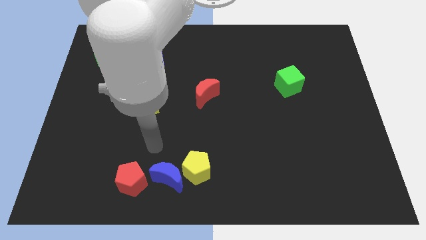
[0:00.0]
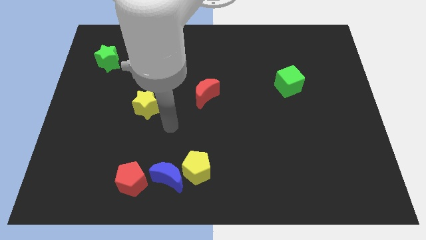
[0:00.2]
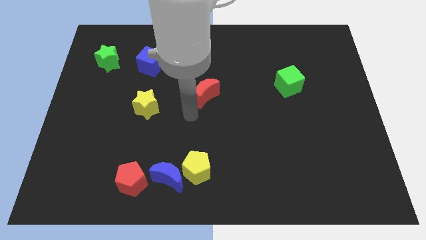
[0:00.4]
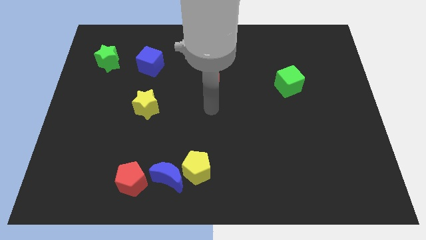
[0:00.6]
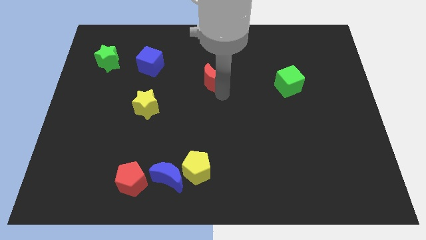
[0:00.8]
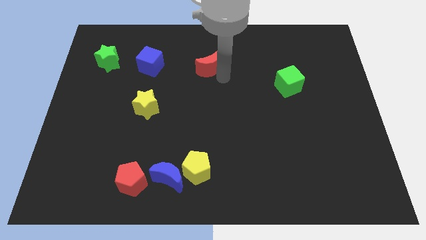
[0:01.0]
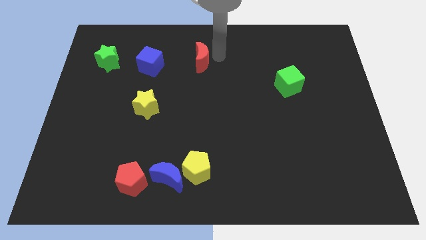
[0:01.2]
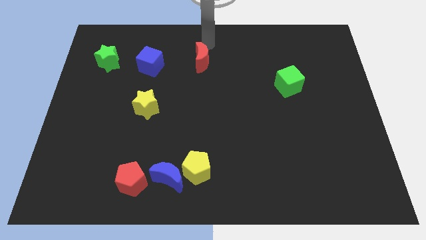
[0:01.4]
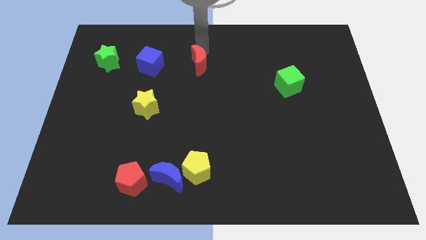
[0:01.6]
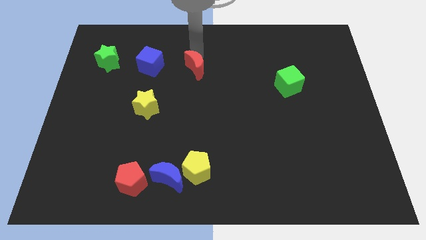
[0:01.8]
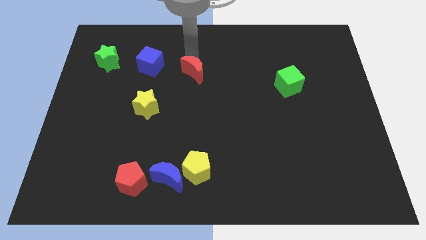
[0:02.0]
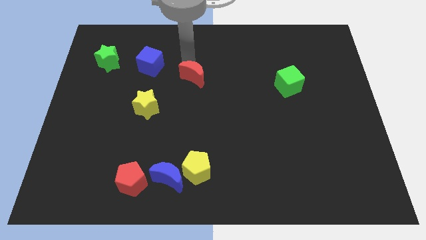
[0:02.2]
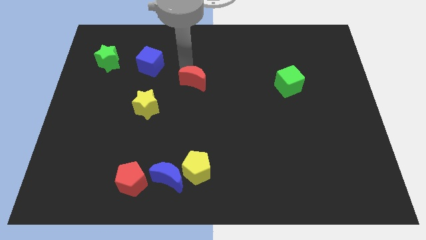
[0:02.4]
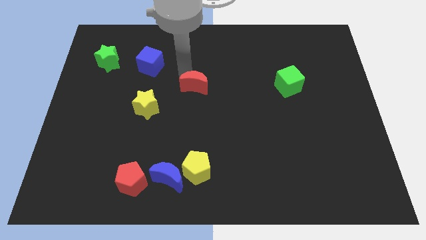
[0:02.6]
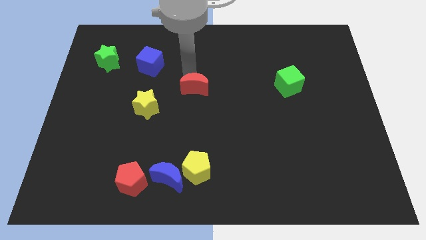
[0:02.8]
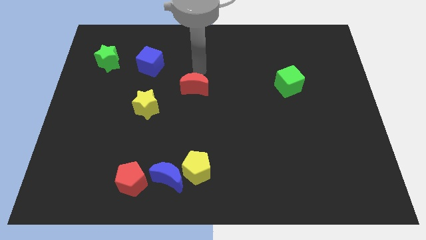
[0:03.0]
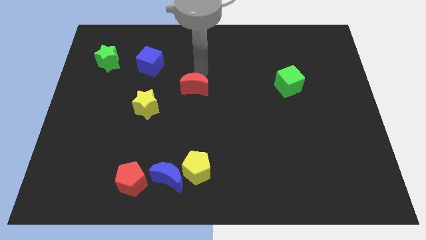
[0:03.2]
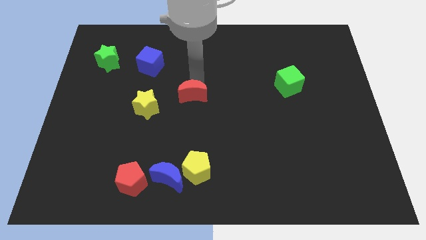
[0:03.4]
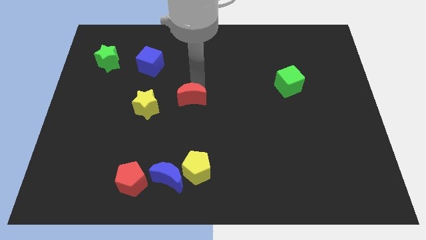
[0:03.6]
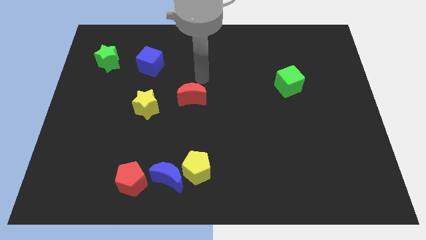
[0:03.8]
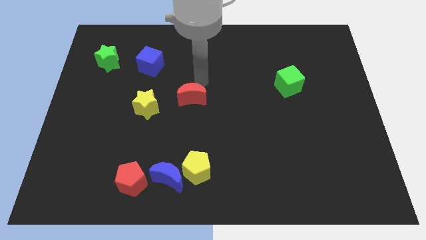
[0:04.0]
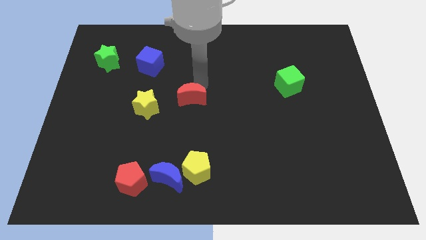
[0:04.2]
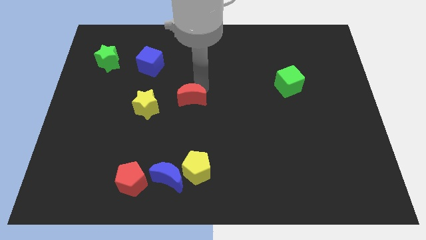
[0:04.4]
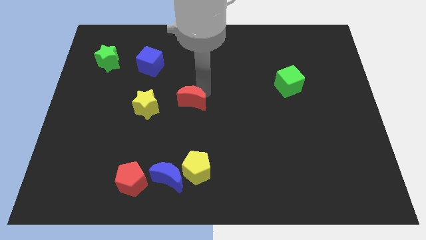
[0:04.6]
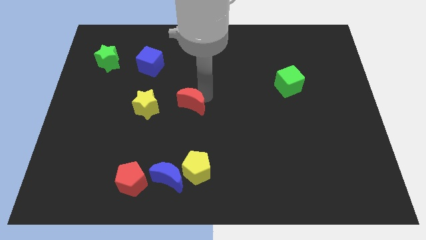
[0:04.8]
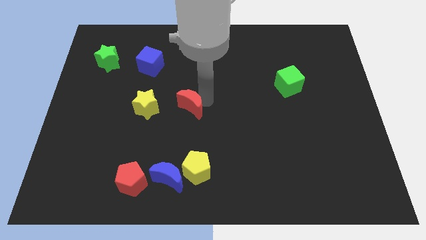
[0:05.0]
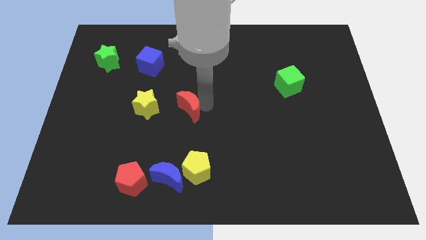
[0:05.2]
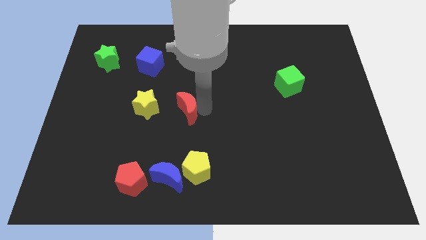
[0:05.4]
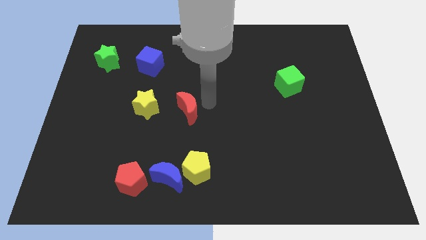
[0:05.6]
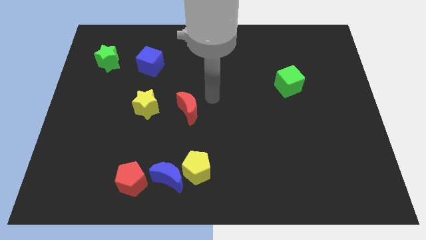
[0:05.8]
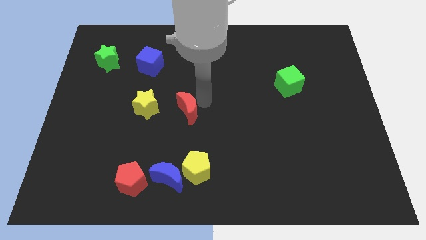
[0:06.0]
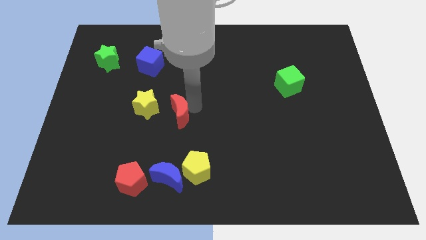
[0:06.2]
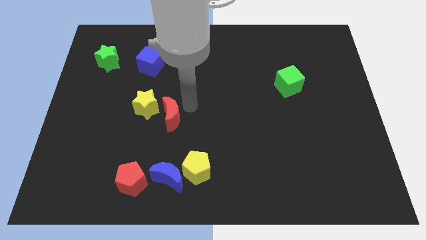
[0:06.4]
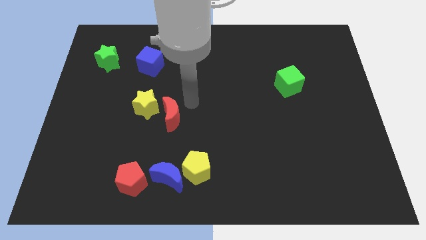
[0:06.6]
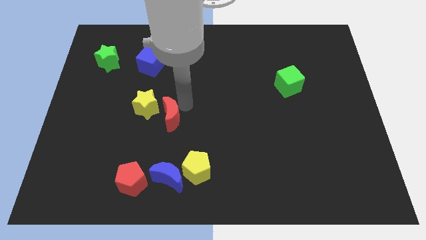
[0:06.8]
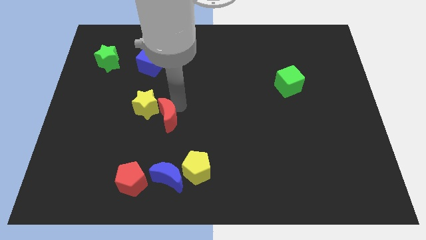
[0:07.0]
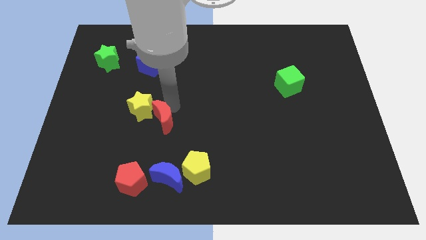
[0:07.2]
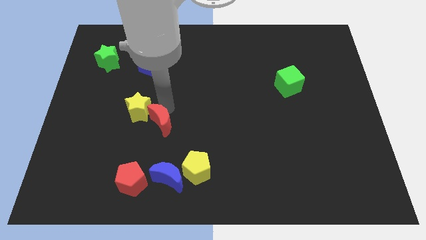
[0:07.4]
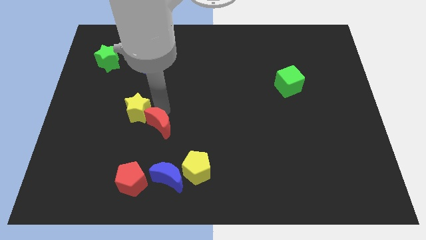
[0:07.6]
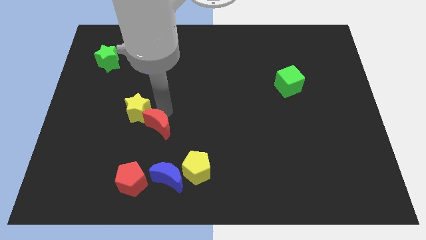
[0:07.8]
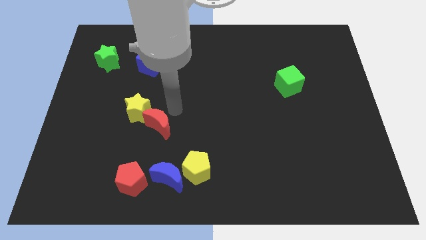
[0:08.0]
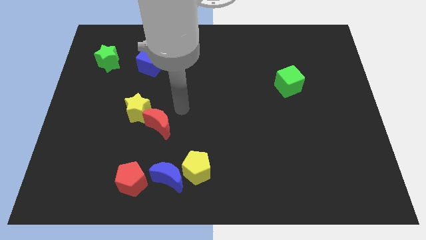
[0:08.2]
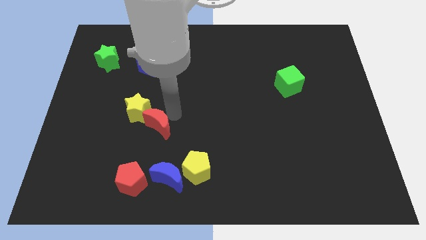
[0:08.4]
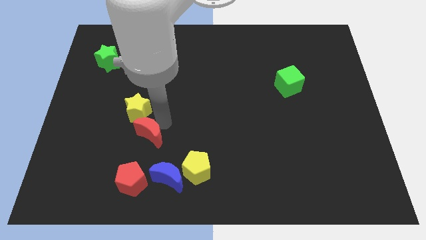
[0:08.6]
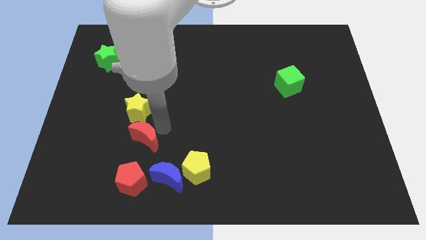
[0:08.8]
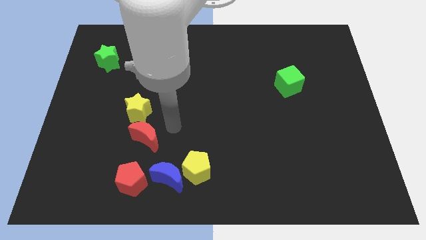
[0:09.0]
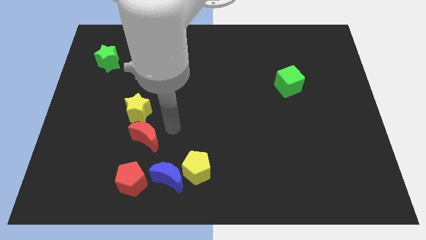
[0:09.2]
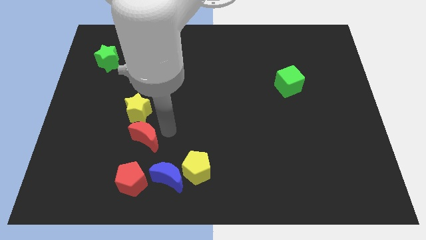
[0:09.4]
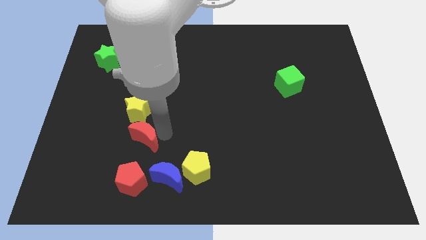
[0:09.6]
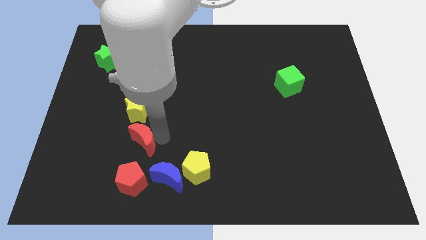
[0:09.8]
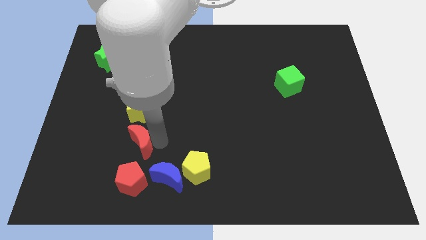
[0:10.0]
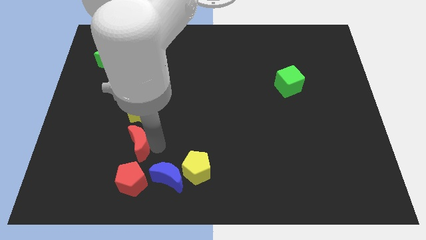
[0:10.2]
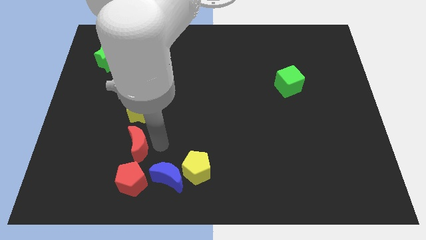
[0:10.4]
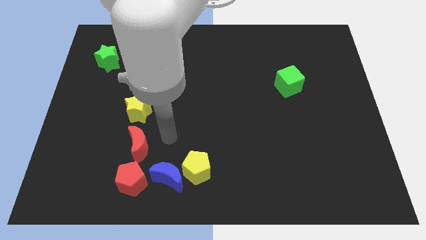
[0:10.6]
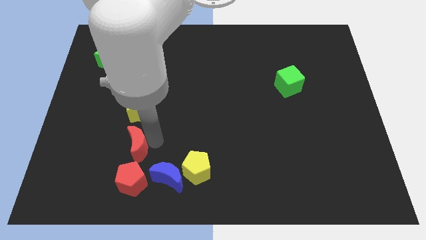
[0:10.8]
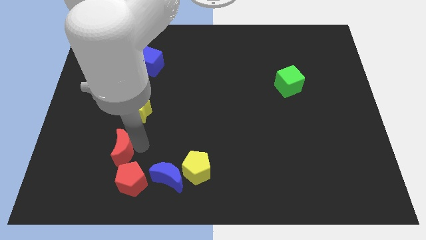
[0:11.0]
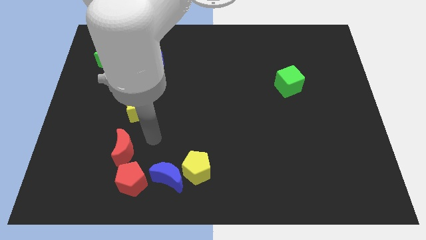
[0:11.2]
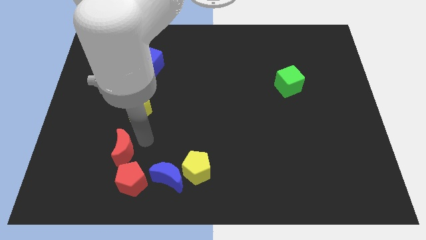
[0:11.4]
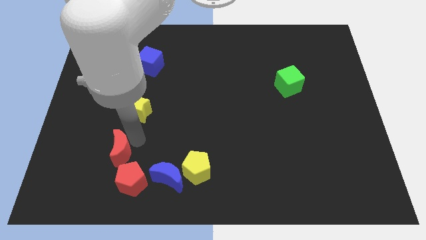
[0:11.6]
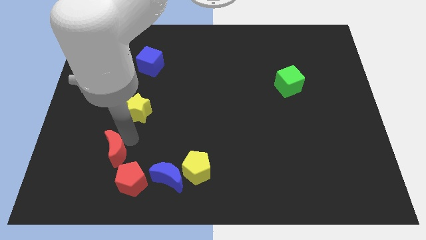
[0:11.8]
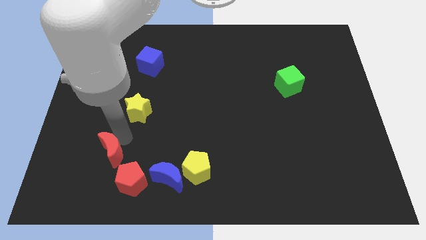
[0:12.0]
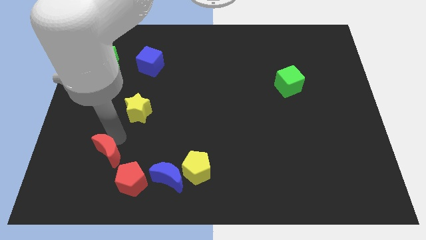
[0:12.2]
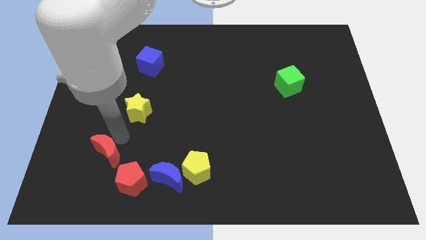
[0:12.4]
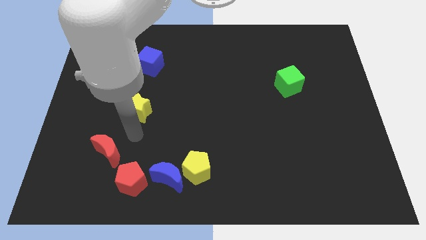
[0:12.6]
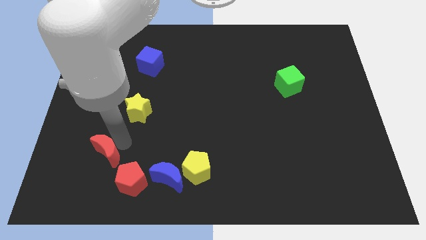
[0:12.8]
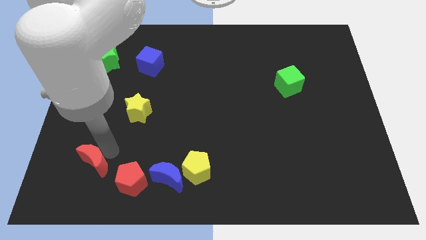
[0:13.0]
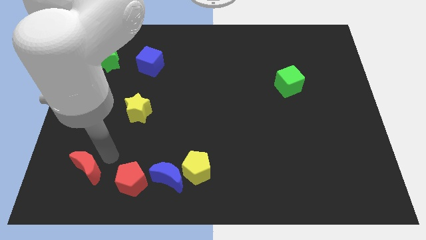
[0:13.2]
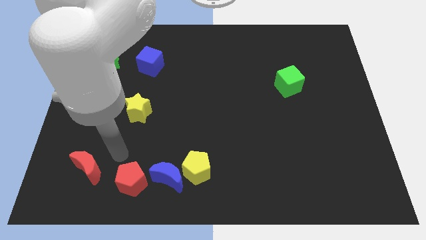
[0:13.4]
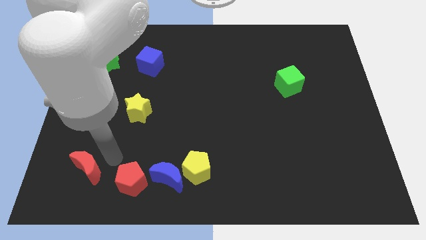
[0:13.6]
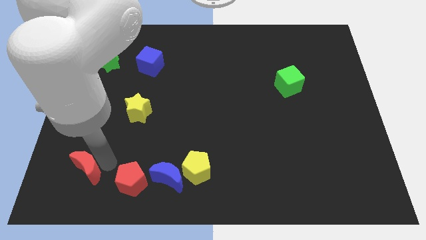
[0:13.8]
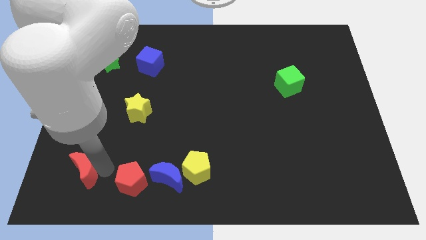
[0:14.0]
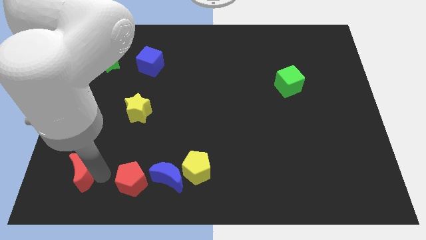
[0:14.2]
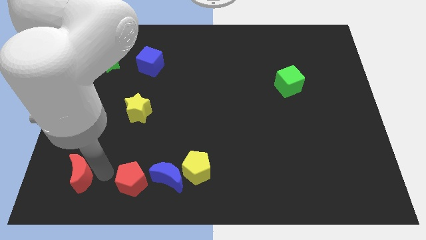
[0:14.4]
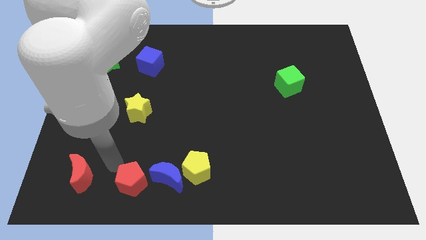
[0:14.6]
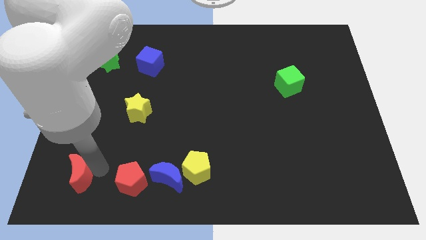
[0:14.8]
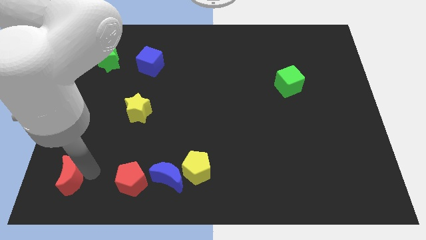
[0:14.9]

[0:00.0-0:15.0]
push the red moon to the bottom left of the board
